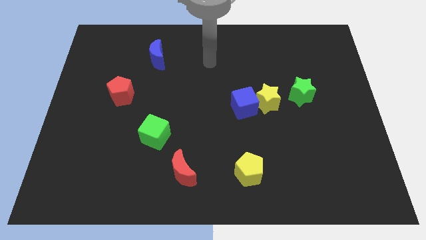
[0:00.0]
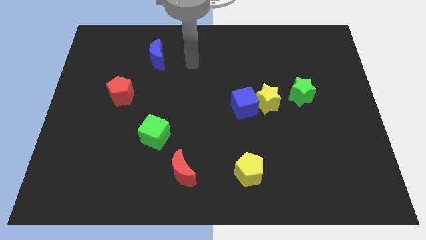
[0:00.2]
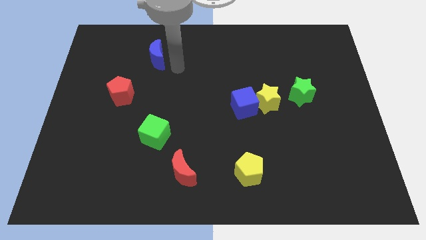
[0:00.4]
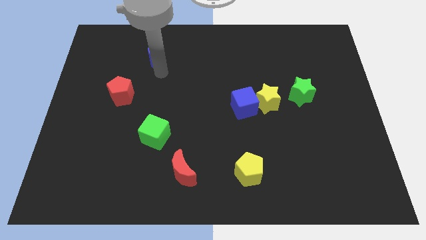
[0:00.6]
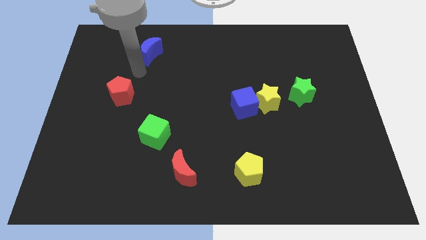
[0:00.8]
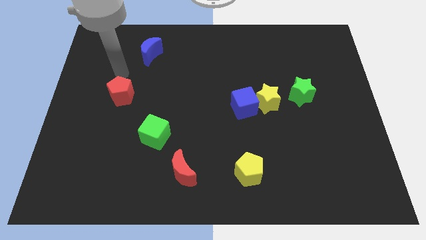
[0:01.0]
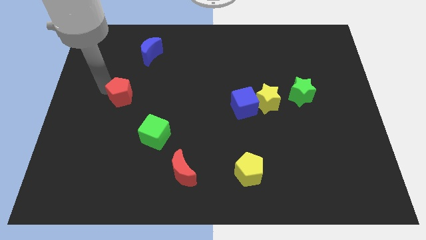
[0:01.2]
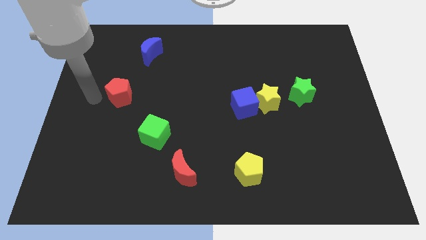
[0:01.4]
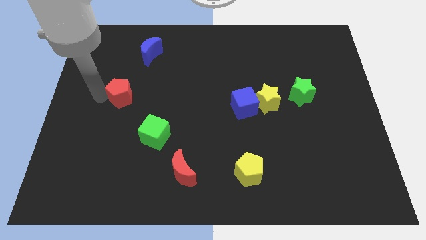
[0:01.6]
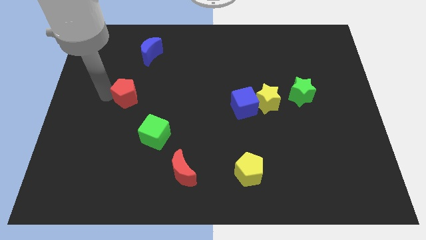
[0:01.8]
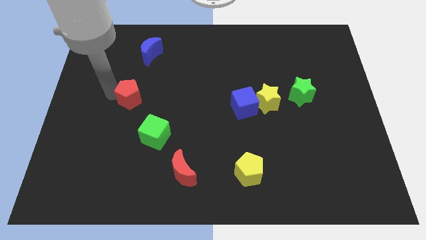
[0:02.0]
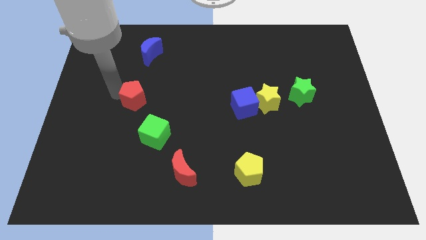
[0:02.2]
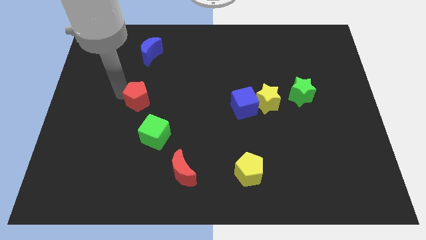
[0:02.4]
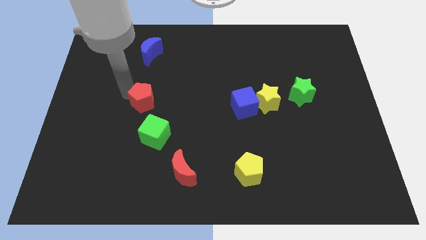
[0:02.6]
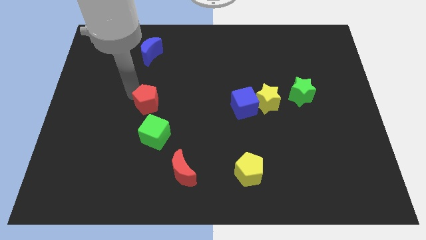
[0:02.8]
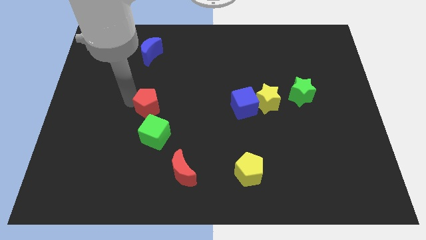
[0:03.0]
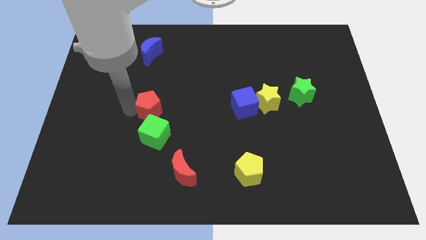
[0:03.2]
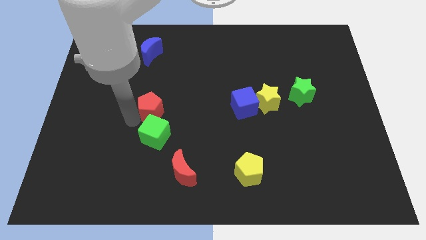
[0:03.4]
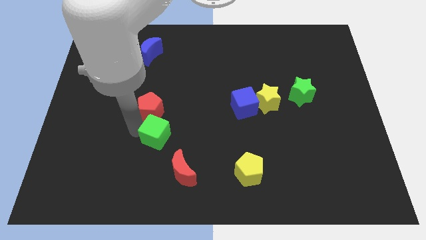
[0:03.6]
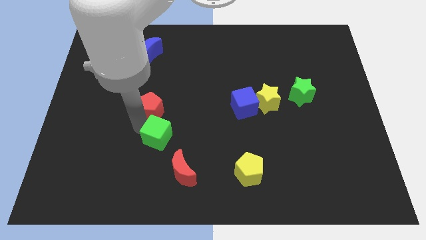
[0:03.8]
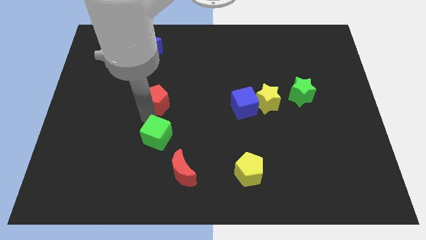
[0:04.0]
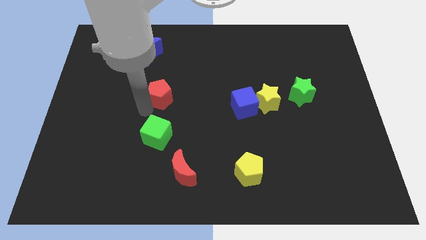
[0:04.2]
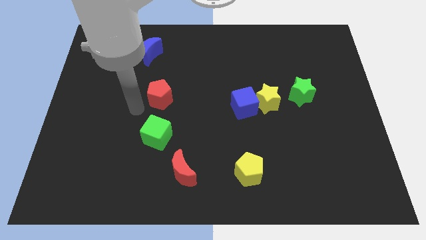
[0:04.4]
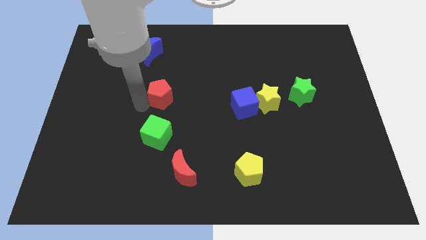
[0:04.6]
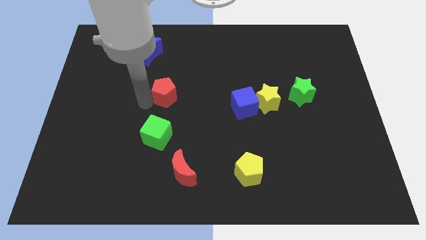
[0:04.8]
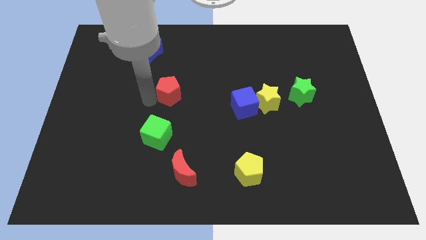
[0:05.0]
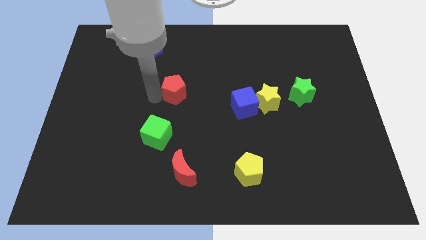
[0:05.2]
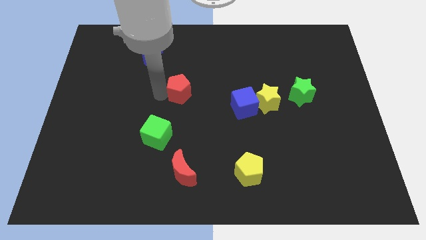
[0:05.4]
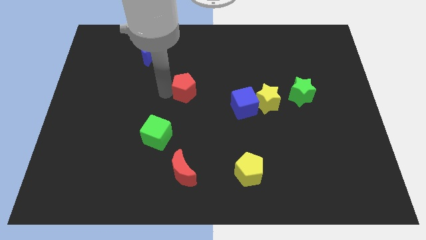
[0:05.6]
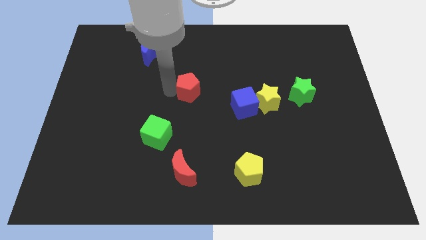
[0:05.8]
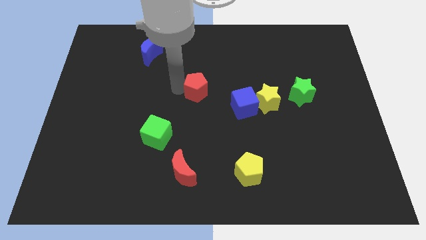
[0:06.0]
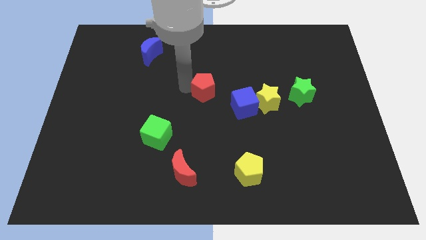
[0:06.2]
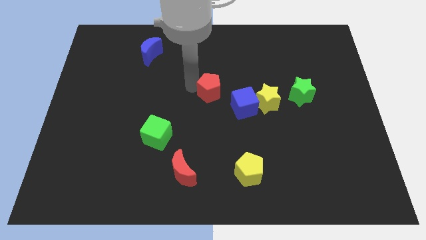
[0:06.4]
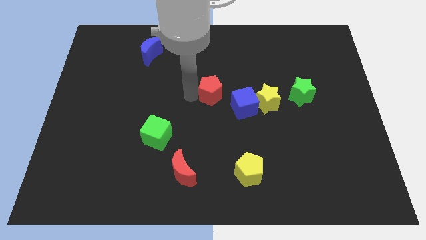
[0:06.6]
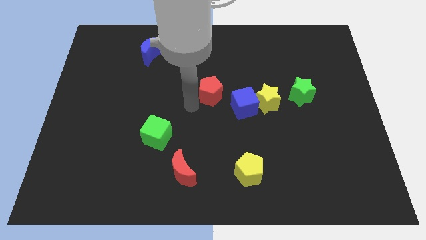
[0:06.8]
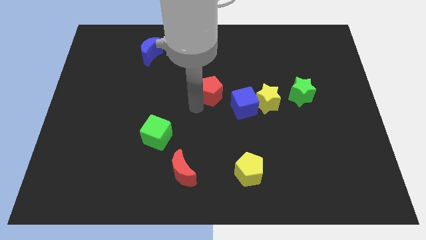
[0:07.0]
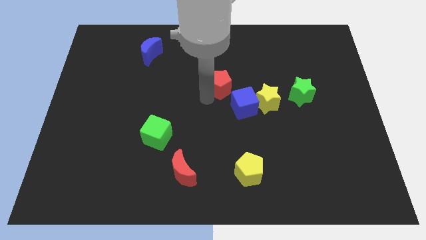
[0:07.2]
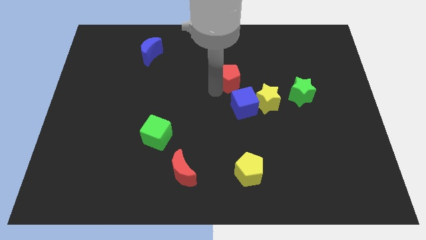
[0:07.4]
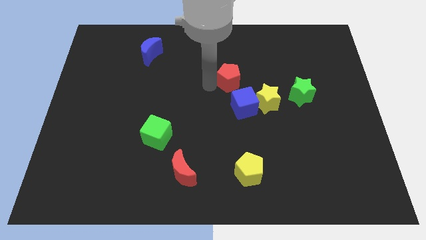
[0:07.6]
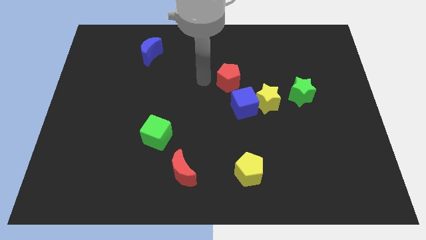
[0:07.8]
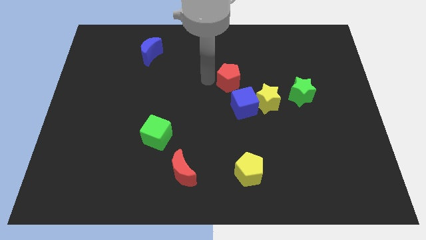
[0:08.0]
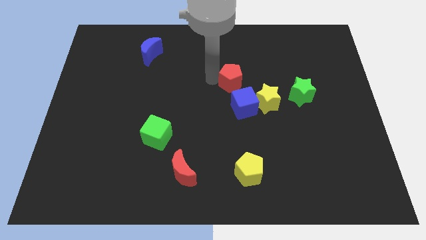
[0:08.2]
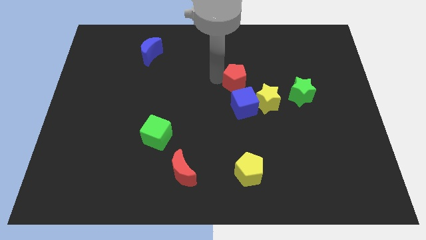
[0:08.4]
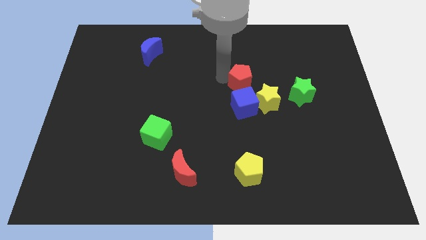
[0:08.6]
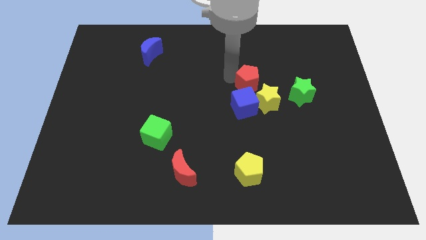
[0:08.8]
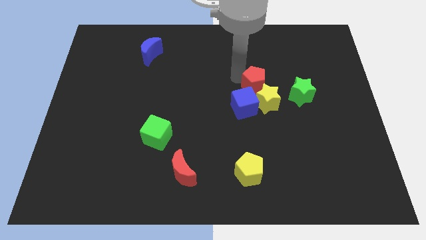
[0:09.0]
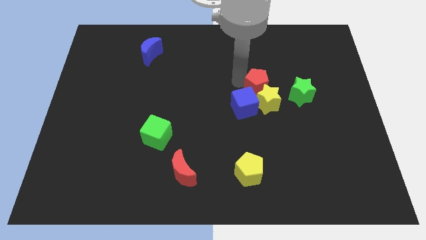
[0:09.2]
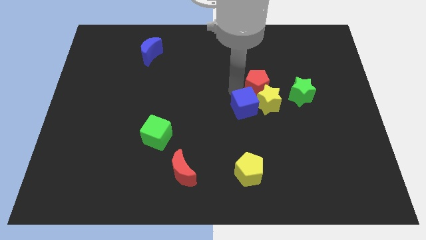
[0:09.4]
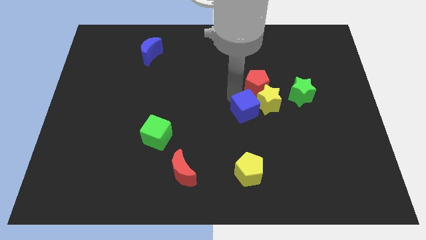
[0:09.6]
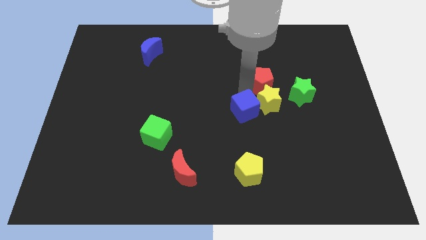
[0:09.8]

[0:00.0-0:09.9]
slide the red pentagon diagonally up and to the left of the green star

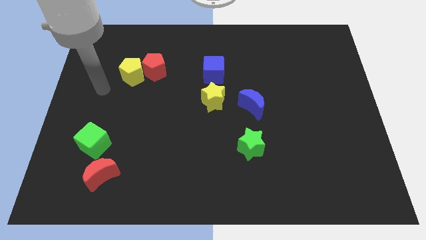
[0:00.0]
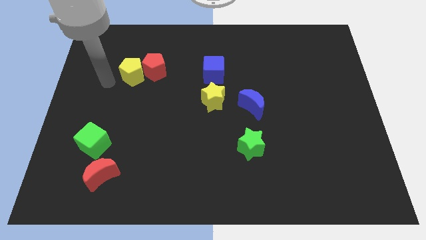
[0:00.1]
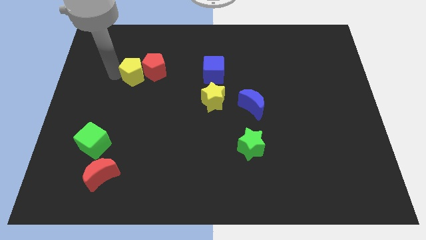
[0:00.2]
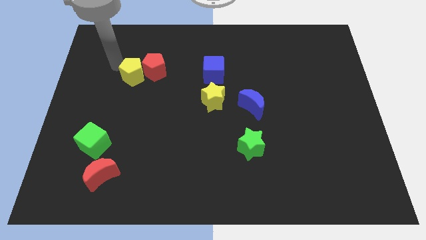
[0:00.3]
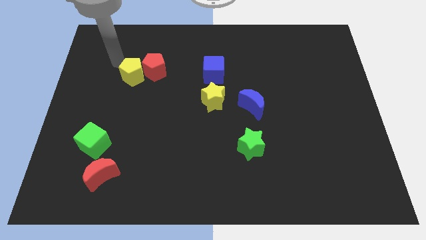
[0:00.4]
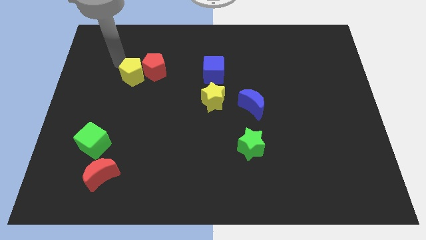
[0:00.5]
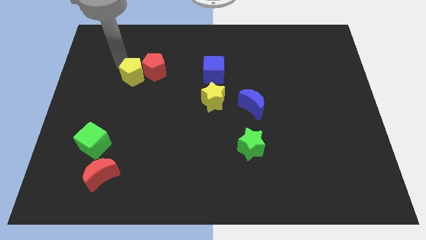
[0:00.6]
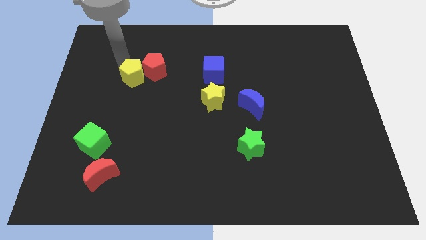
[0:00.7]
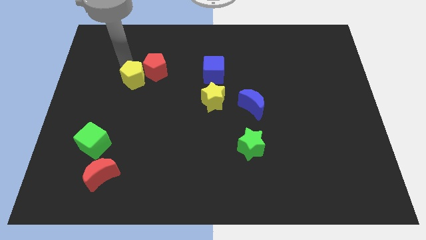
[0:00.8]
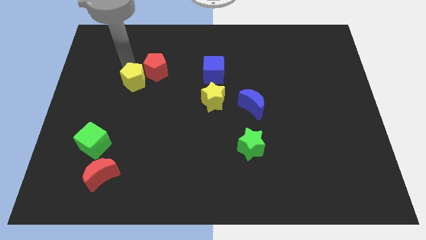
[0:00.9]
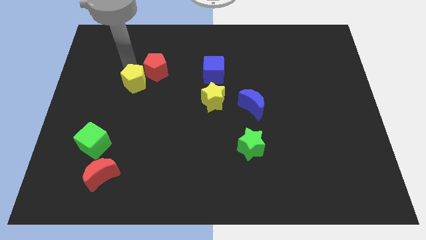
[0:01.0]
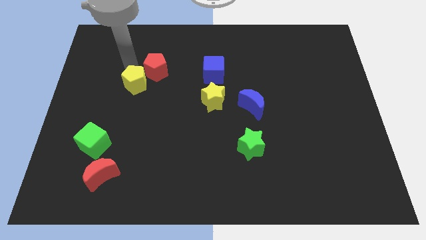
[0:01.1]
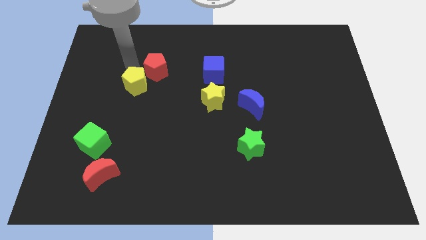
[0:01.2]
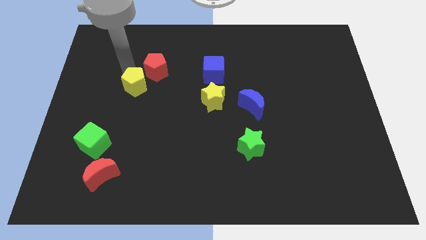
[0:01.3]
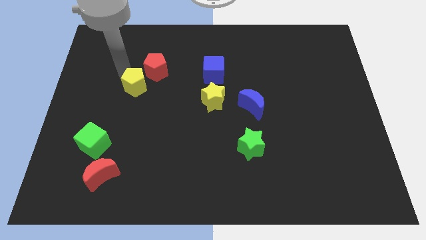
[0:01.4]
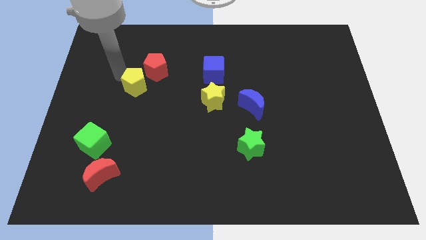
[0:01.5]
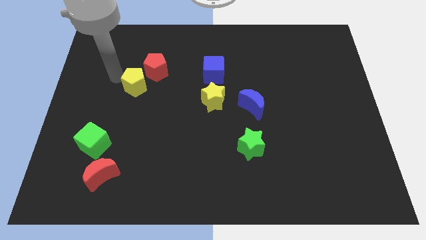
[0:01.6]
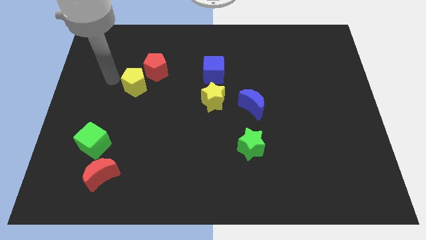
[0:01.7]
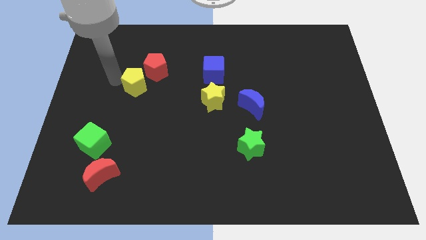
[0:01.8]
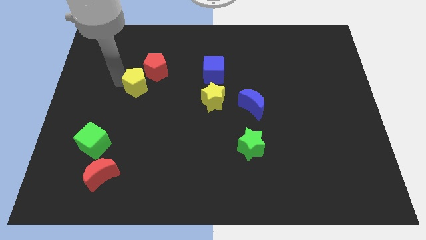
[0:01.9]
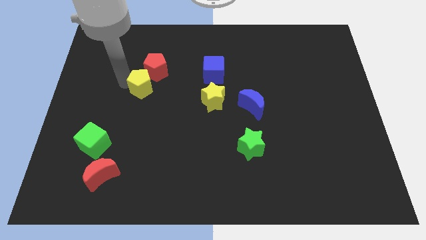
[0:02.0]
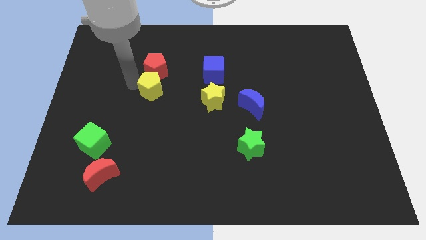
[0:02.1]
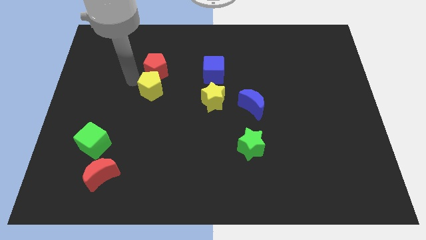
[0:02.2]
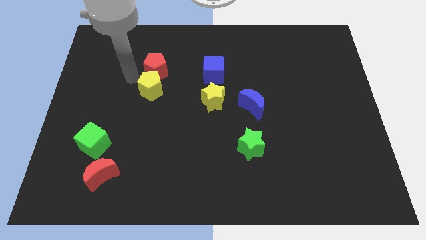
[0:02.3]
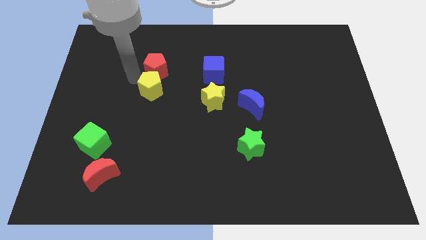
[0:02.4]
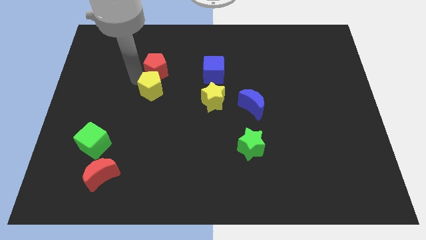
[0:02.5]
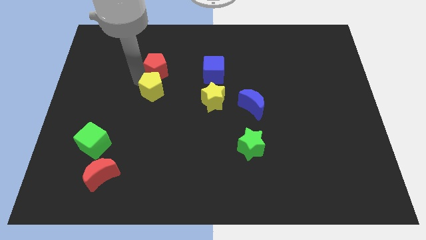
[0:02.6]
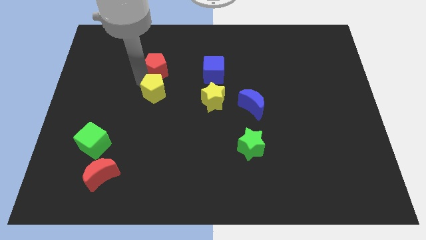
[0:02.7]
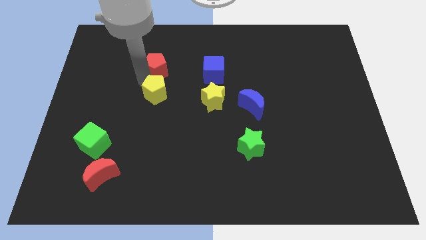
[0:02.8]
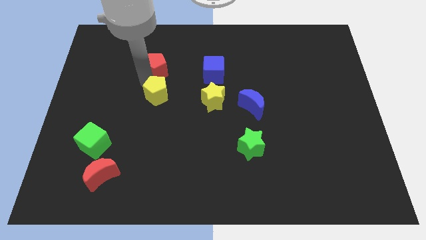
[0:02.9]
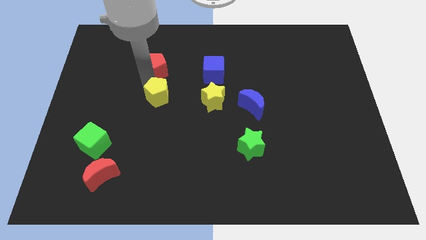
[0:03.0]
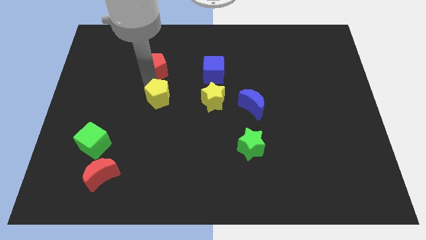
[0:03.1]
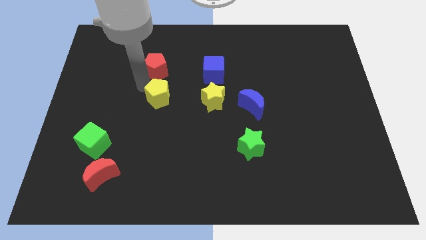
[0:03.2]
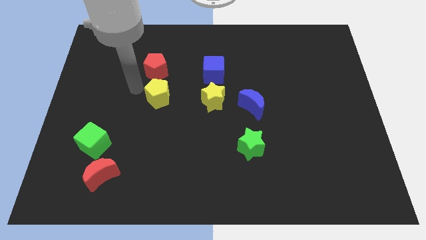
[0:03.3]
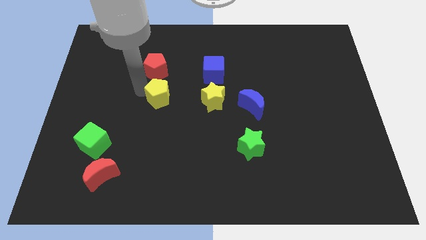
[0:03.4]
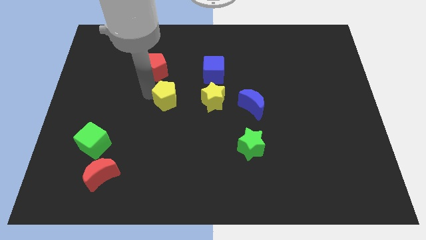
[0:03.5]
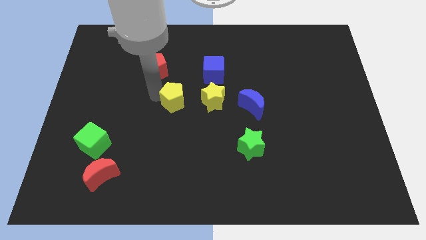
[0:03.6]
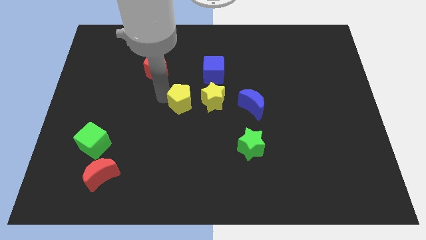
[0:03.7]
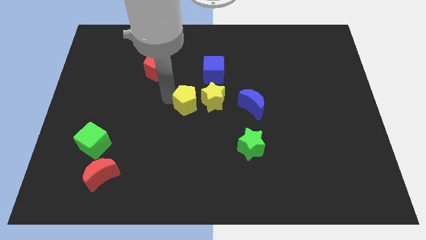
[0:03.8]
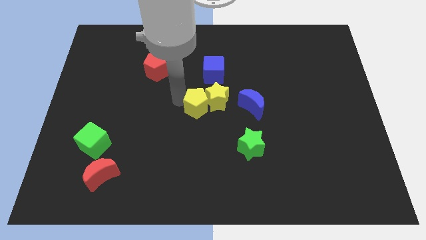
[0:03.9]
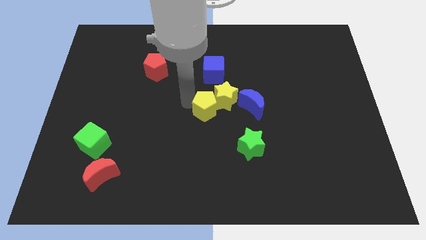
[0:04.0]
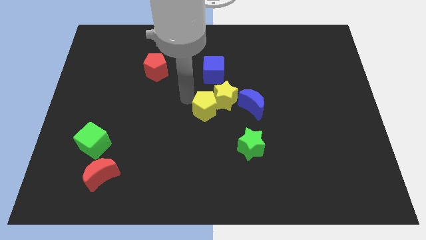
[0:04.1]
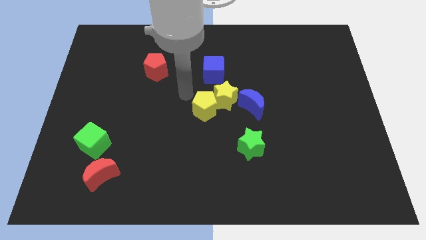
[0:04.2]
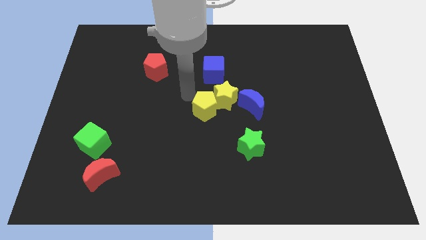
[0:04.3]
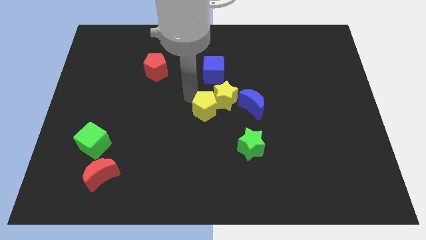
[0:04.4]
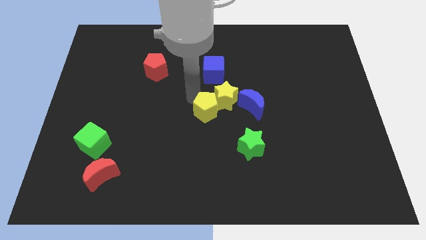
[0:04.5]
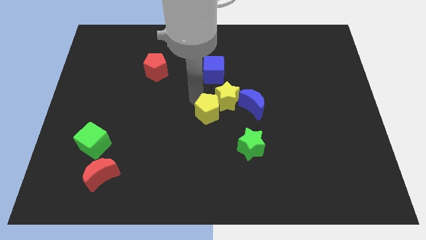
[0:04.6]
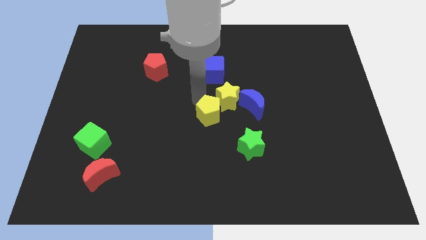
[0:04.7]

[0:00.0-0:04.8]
move the yellow pentagon diagonally up and to the left of the green star
